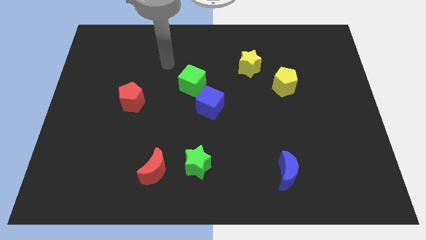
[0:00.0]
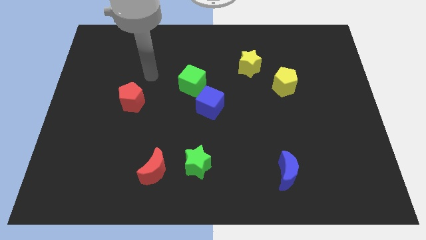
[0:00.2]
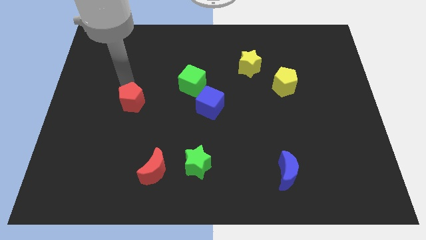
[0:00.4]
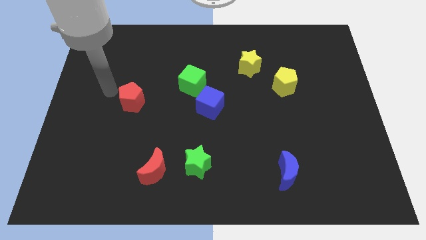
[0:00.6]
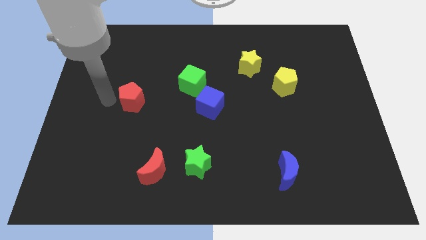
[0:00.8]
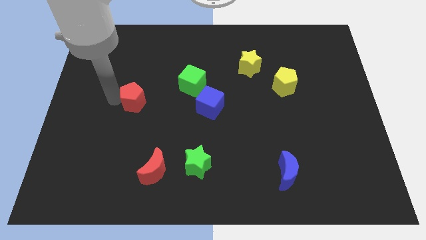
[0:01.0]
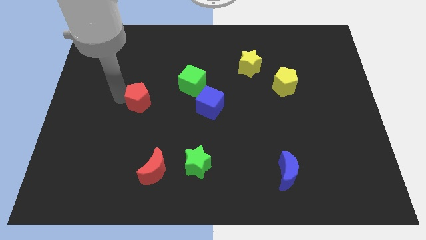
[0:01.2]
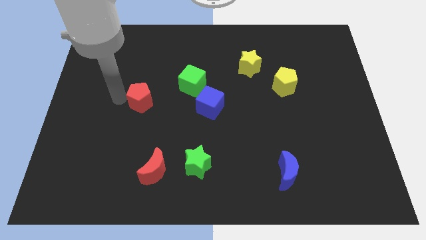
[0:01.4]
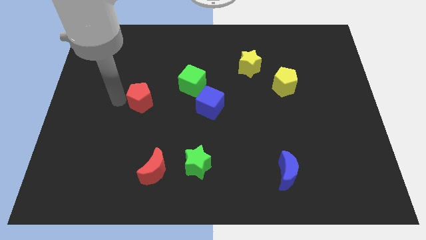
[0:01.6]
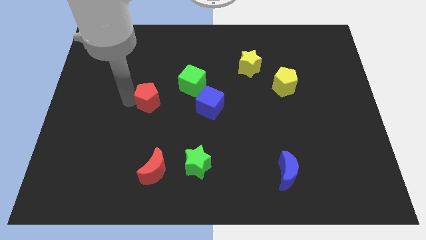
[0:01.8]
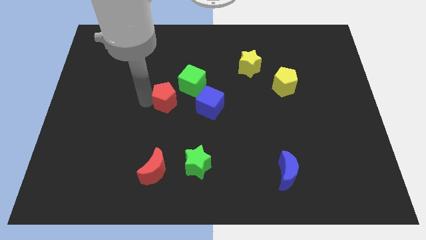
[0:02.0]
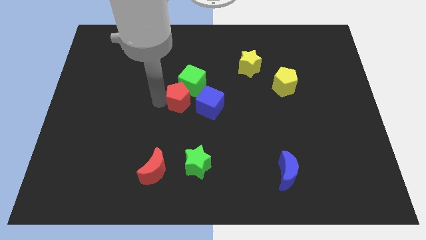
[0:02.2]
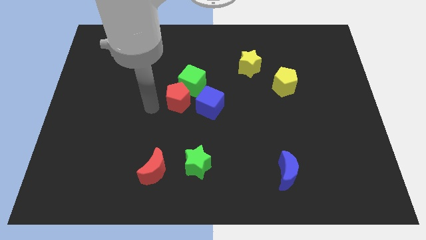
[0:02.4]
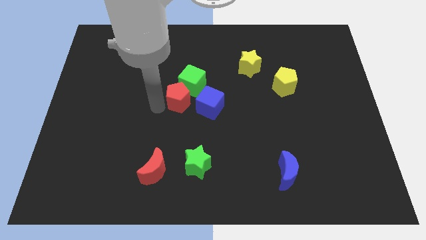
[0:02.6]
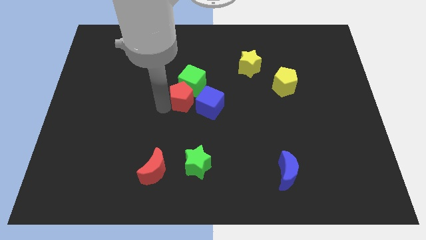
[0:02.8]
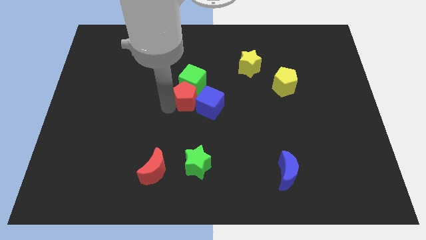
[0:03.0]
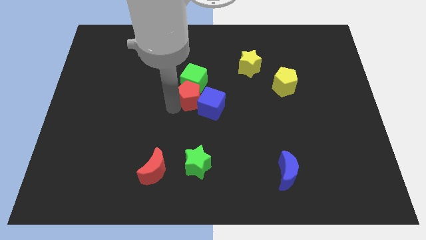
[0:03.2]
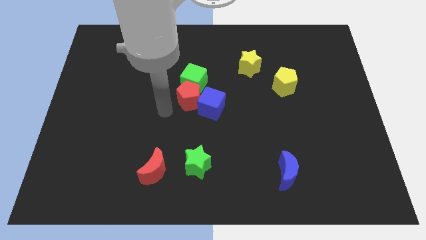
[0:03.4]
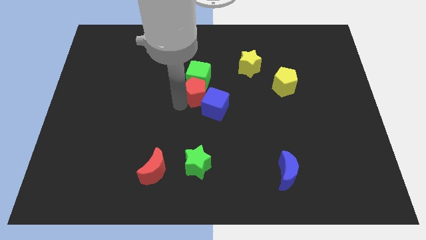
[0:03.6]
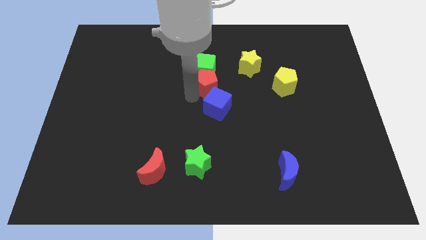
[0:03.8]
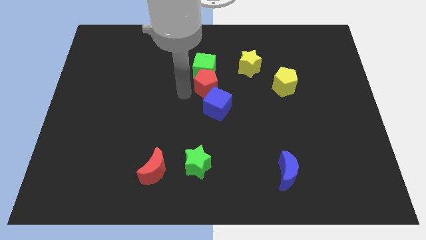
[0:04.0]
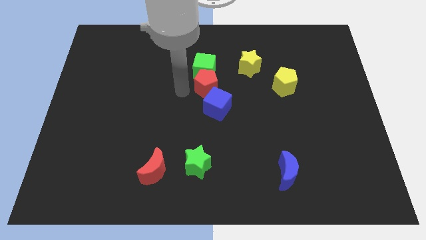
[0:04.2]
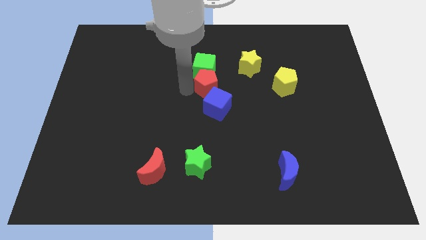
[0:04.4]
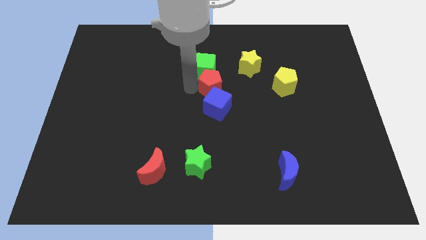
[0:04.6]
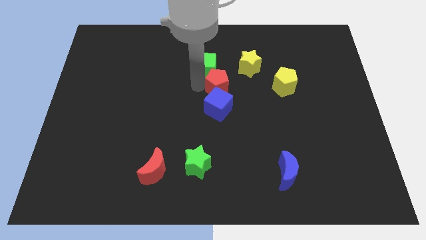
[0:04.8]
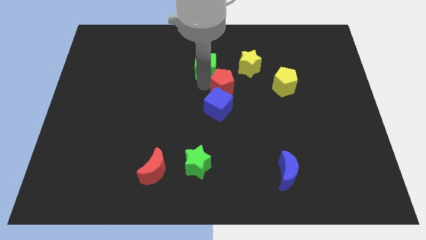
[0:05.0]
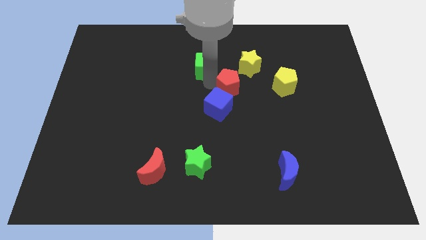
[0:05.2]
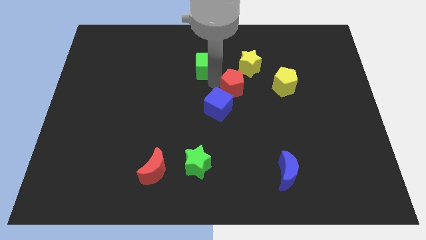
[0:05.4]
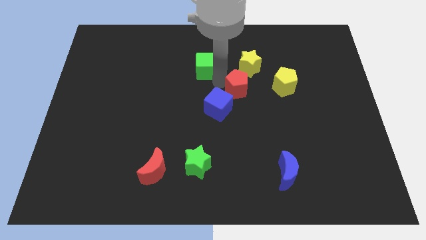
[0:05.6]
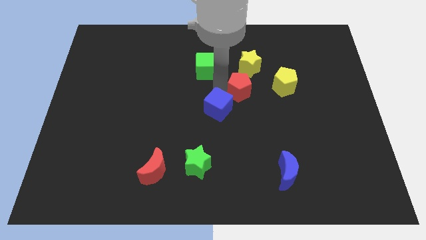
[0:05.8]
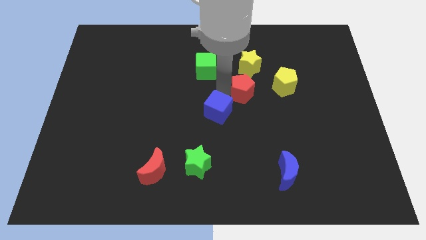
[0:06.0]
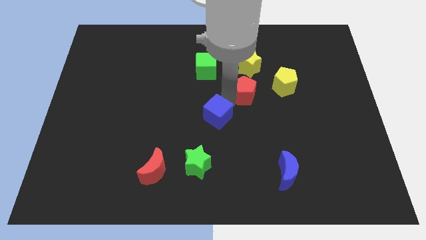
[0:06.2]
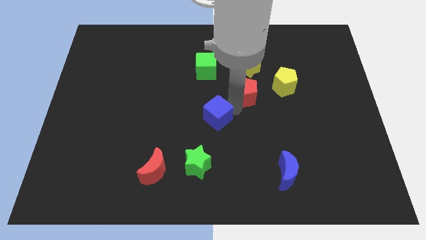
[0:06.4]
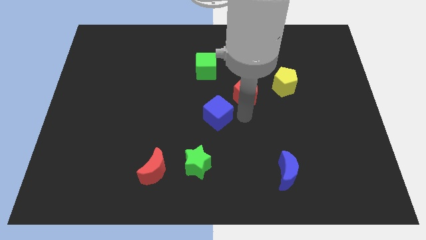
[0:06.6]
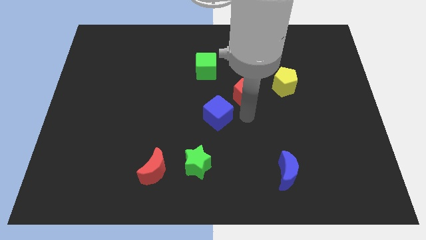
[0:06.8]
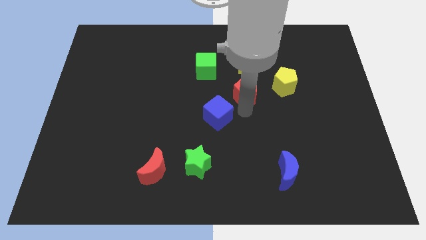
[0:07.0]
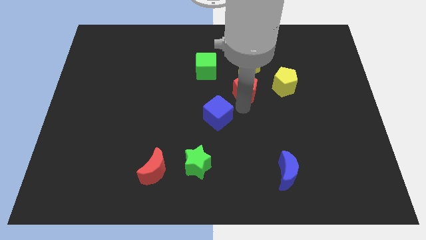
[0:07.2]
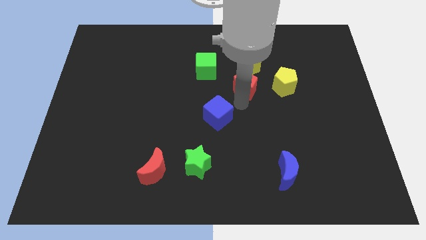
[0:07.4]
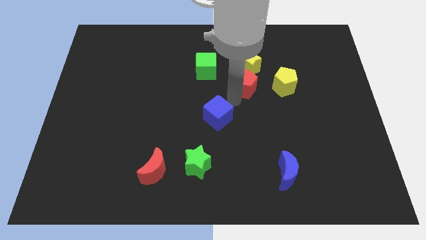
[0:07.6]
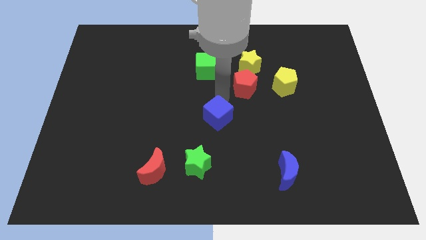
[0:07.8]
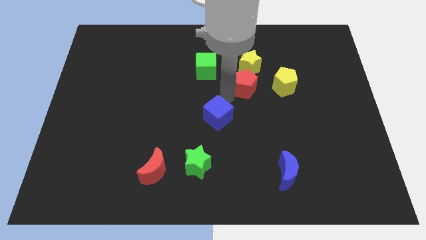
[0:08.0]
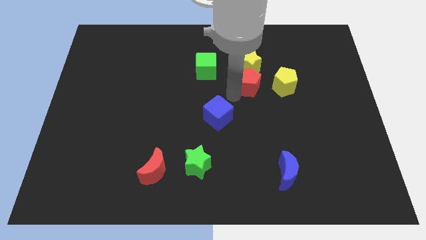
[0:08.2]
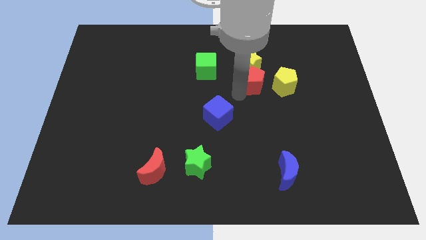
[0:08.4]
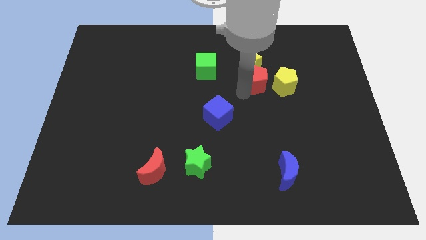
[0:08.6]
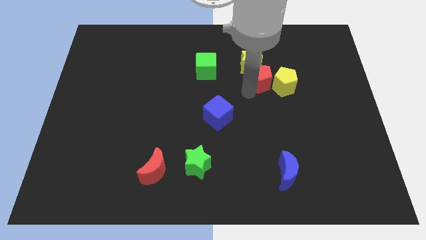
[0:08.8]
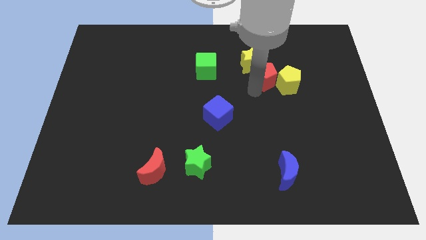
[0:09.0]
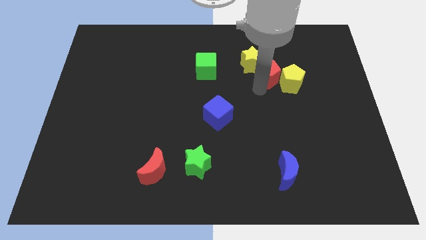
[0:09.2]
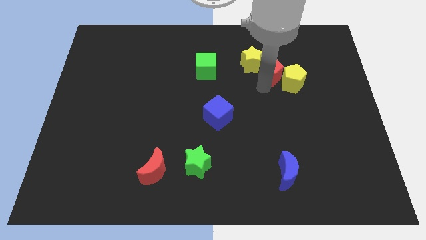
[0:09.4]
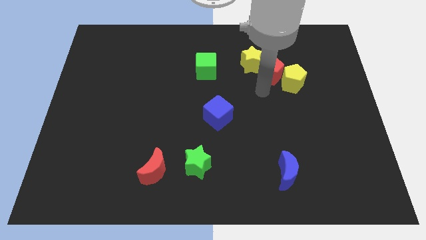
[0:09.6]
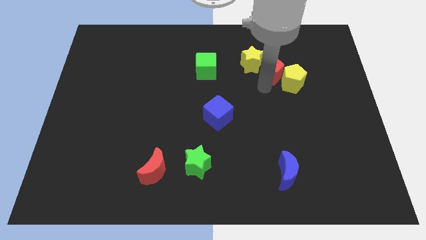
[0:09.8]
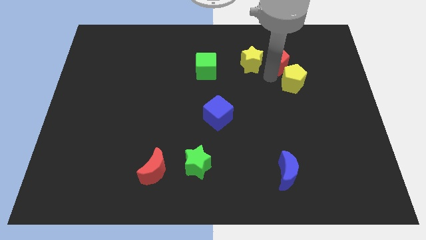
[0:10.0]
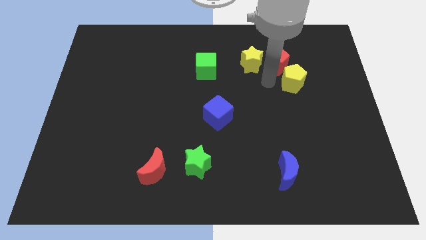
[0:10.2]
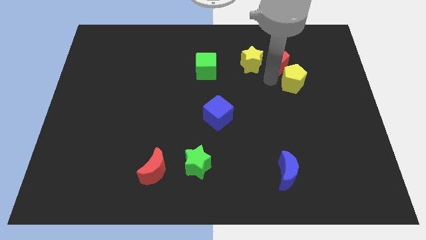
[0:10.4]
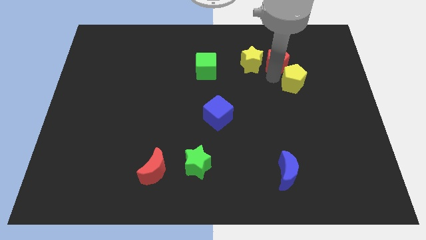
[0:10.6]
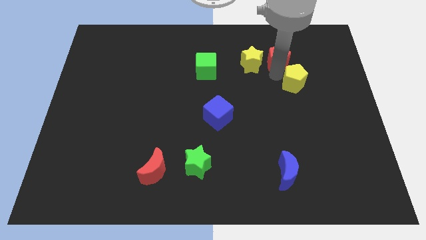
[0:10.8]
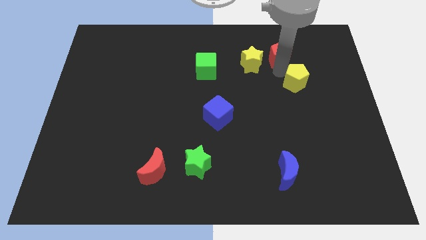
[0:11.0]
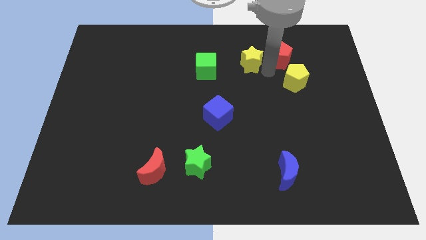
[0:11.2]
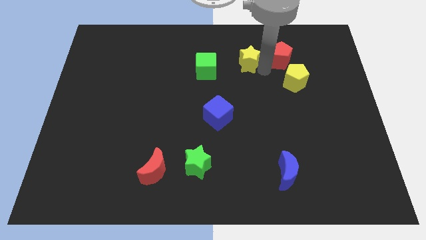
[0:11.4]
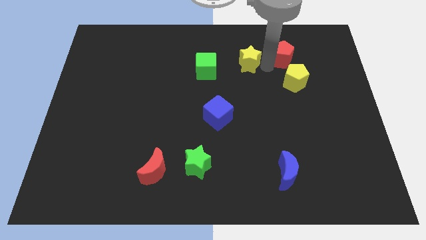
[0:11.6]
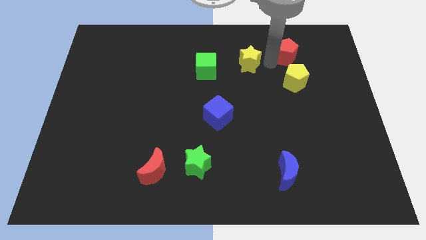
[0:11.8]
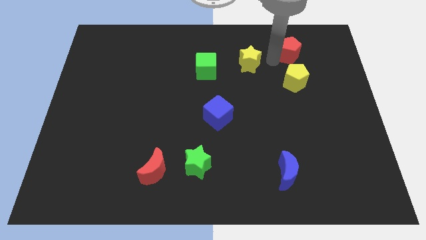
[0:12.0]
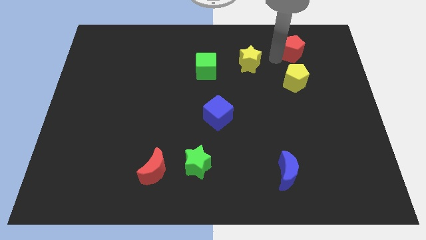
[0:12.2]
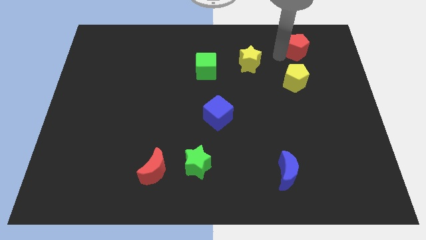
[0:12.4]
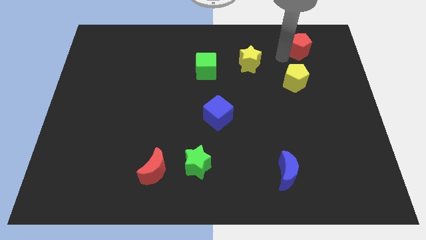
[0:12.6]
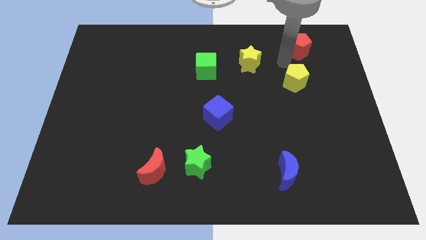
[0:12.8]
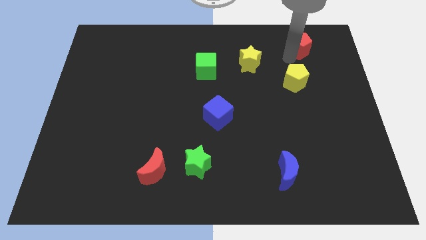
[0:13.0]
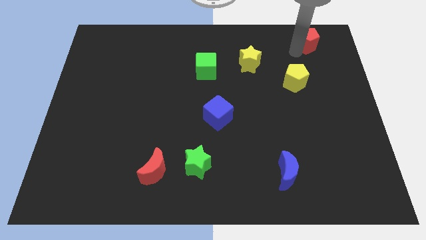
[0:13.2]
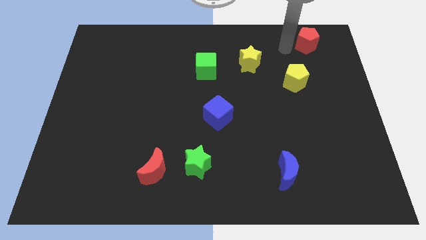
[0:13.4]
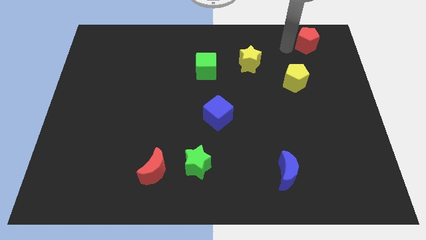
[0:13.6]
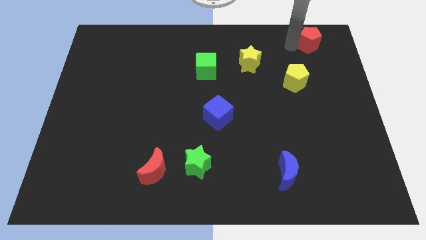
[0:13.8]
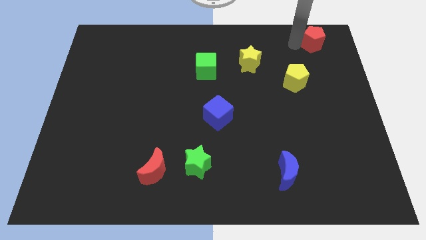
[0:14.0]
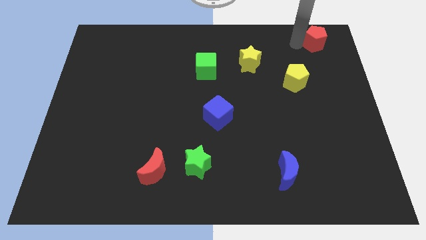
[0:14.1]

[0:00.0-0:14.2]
push the red pentagon to the top right of the board
